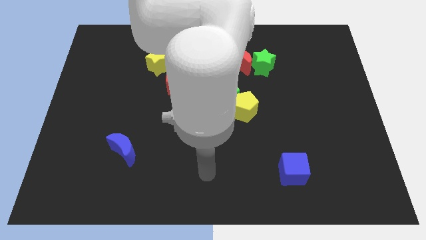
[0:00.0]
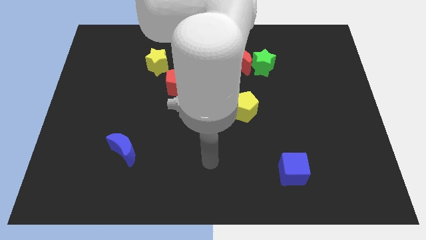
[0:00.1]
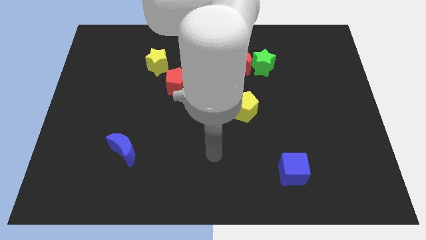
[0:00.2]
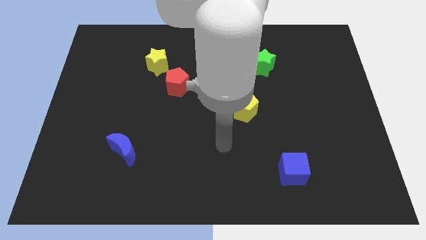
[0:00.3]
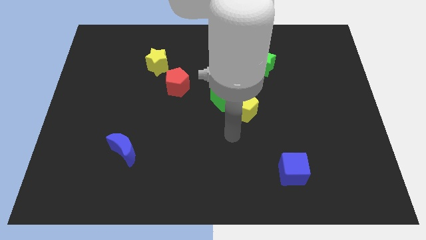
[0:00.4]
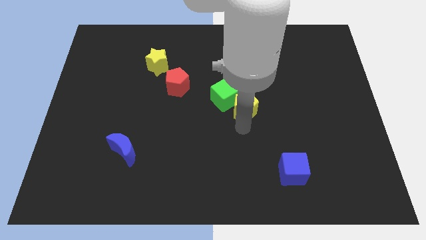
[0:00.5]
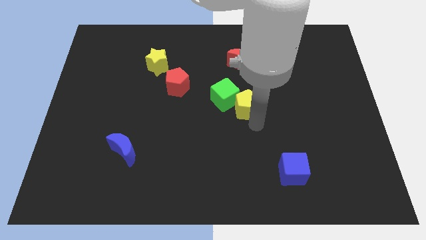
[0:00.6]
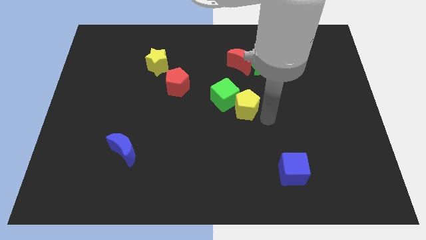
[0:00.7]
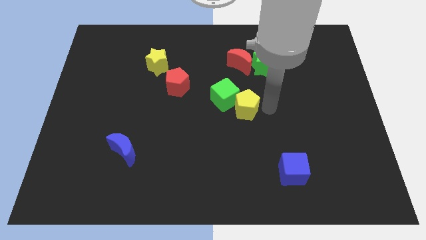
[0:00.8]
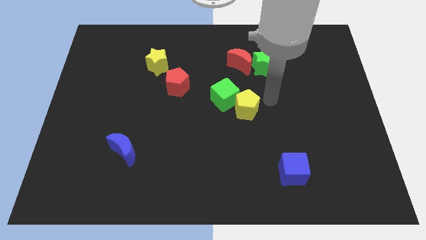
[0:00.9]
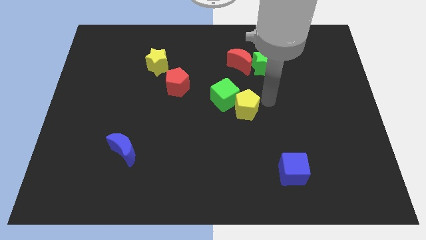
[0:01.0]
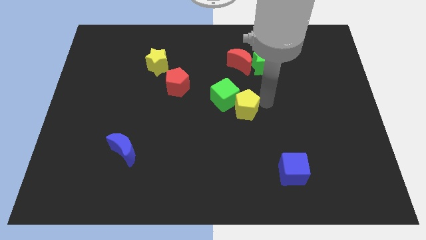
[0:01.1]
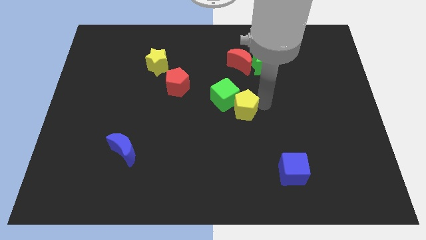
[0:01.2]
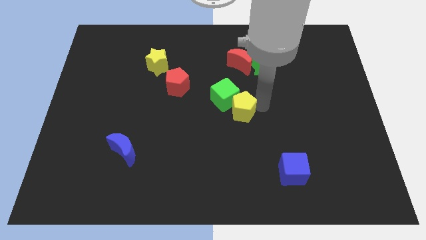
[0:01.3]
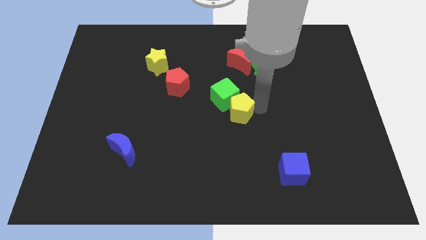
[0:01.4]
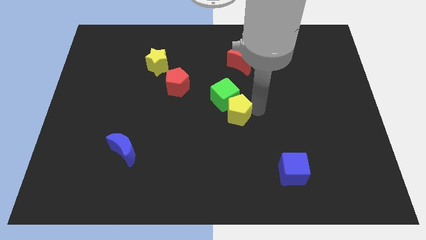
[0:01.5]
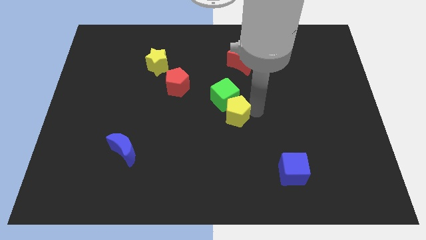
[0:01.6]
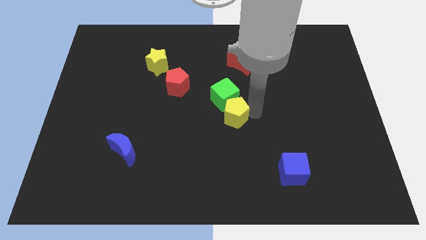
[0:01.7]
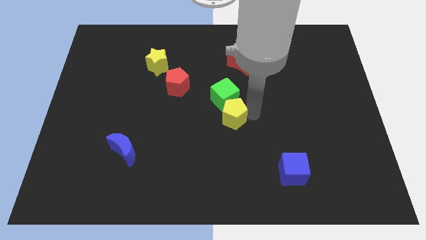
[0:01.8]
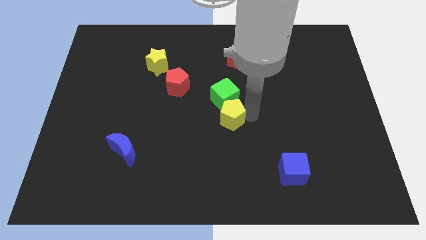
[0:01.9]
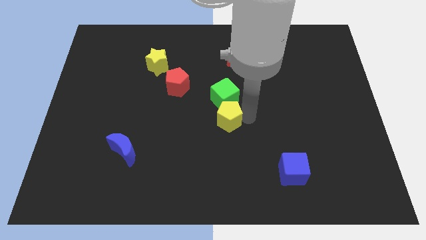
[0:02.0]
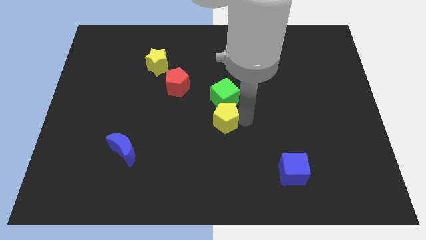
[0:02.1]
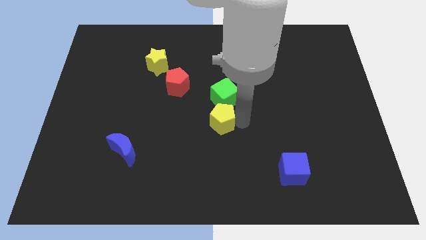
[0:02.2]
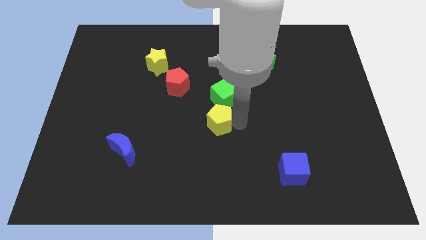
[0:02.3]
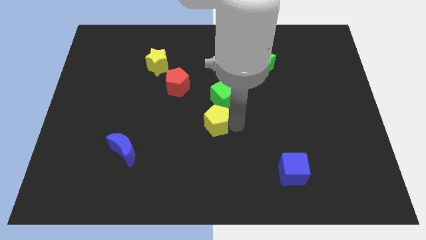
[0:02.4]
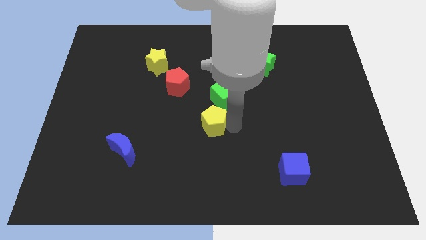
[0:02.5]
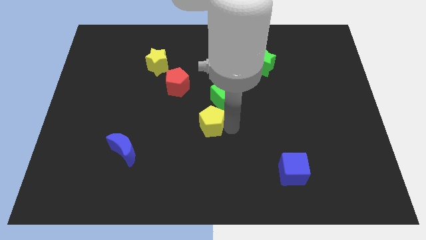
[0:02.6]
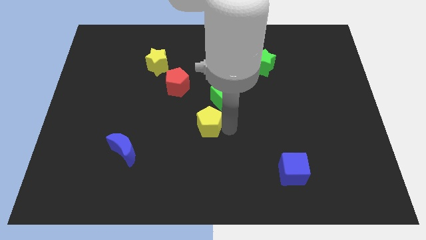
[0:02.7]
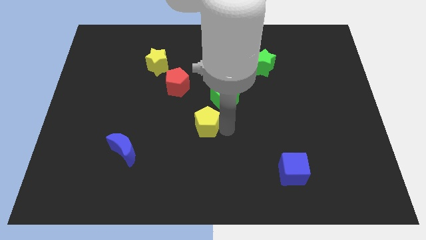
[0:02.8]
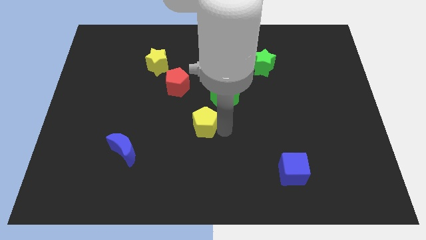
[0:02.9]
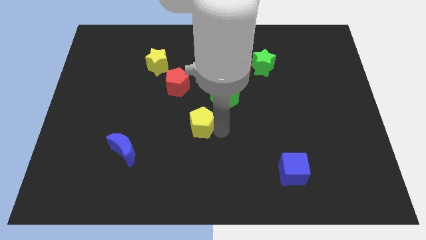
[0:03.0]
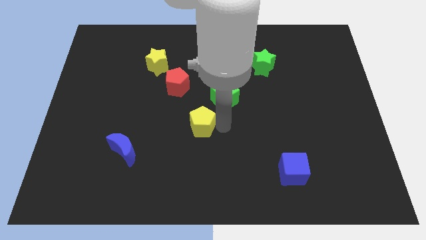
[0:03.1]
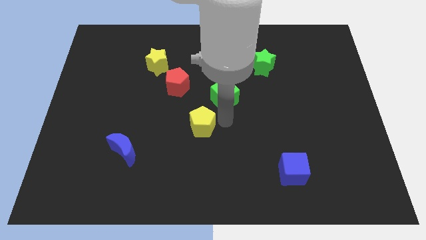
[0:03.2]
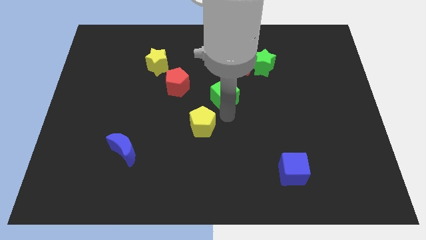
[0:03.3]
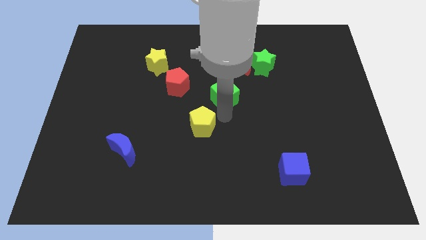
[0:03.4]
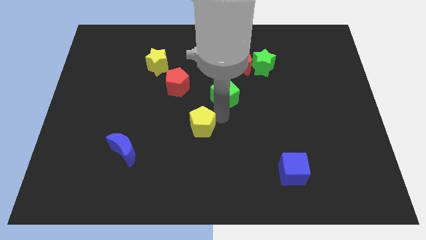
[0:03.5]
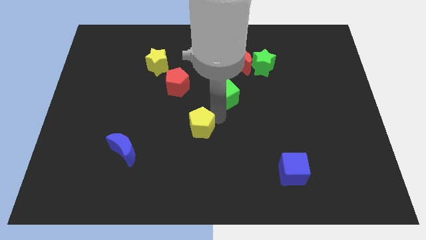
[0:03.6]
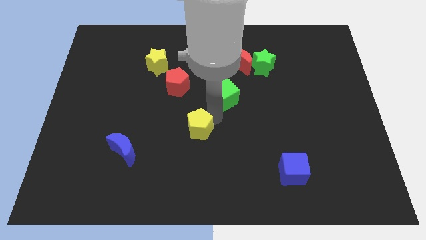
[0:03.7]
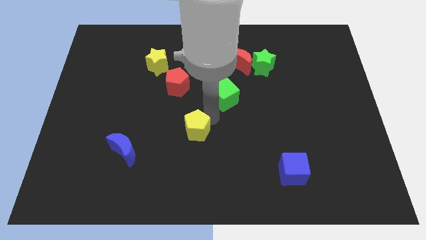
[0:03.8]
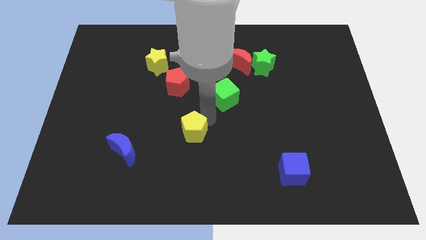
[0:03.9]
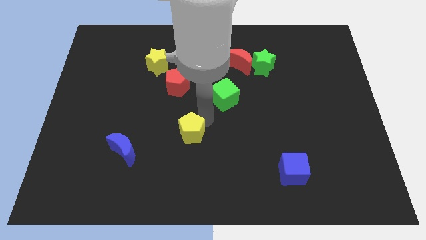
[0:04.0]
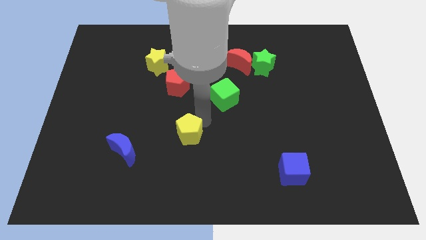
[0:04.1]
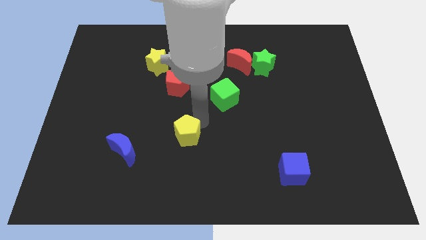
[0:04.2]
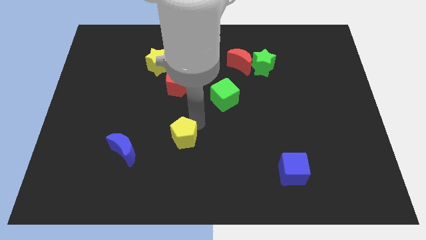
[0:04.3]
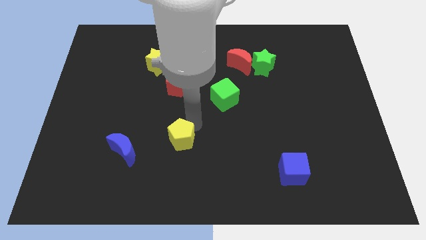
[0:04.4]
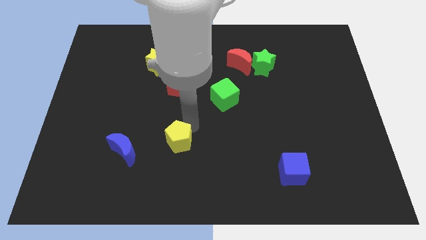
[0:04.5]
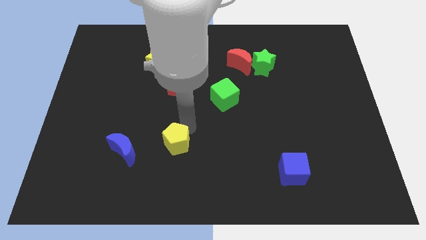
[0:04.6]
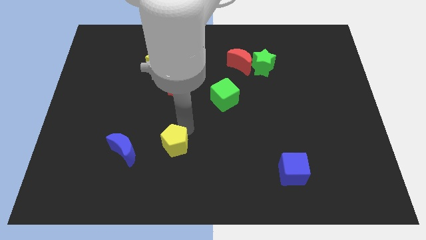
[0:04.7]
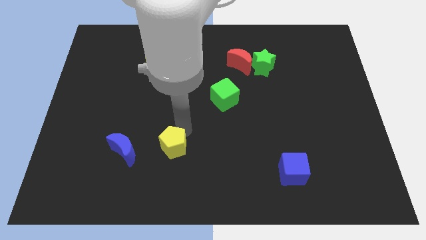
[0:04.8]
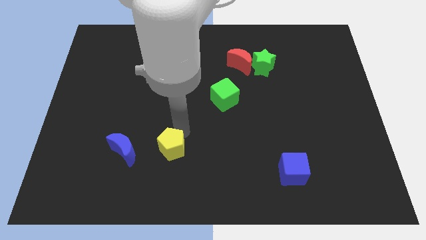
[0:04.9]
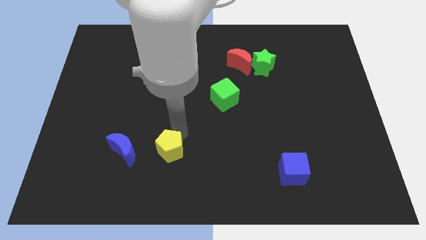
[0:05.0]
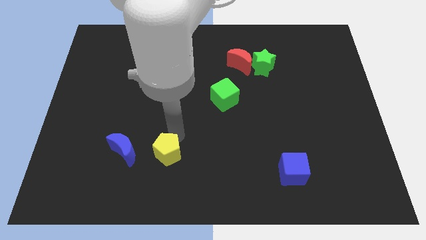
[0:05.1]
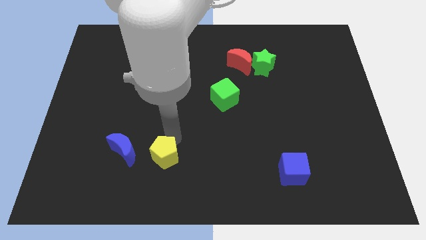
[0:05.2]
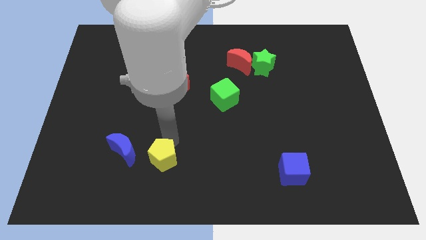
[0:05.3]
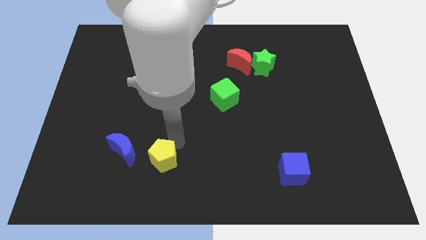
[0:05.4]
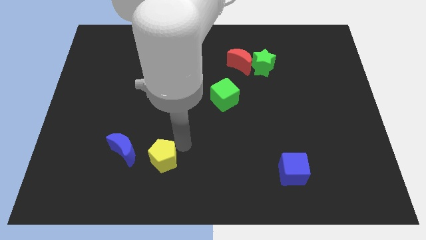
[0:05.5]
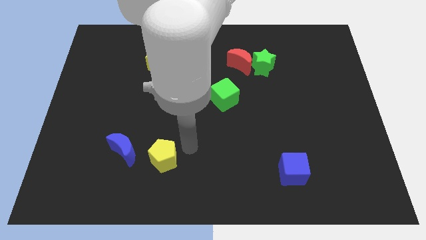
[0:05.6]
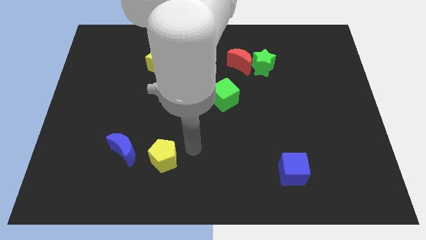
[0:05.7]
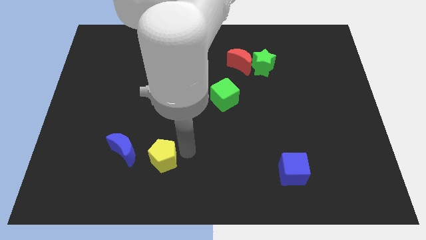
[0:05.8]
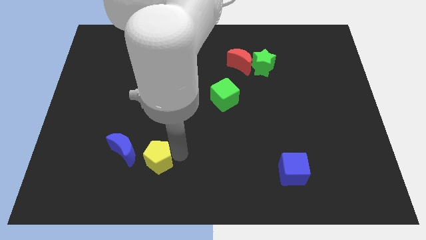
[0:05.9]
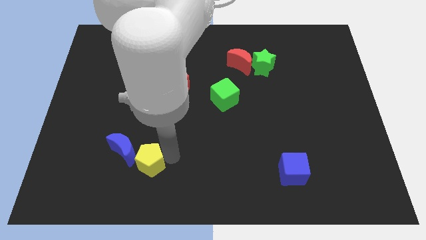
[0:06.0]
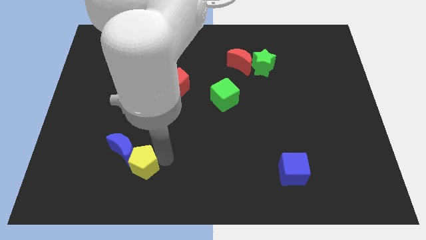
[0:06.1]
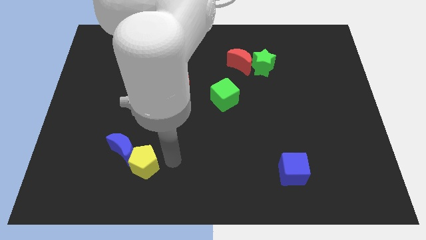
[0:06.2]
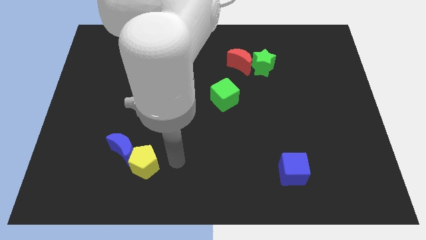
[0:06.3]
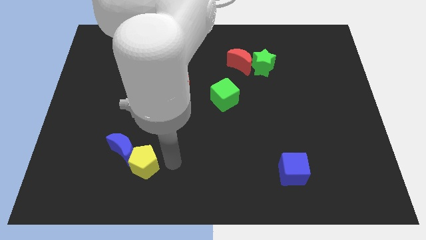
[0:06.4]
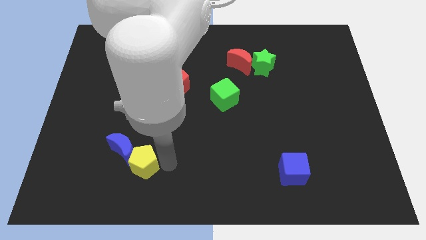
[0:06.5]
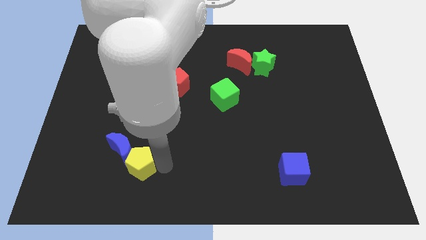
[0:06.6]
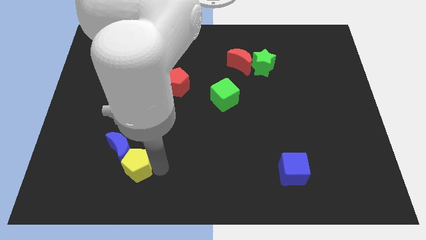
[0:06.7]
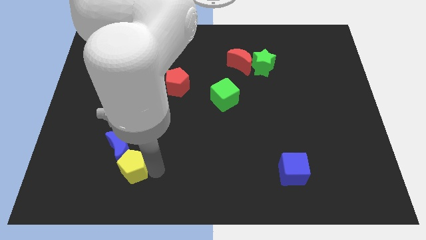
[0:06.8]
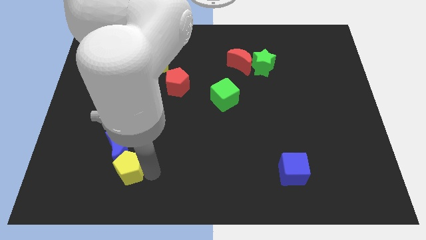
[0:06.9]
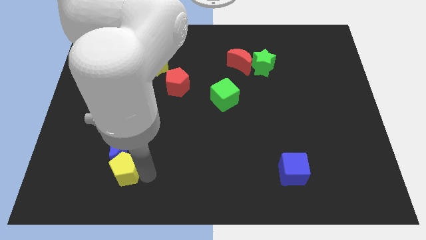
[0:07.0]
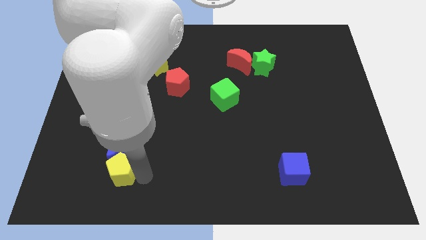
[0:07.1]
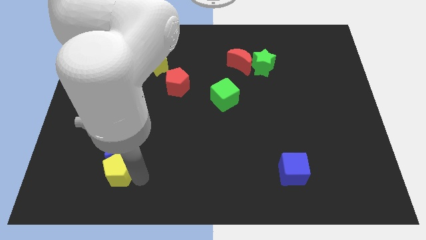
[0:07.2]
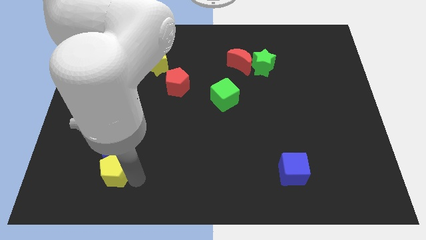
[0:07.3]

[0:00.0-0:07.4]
move the yellow pentagon to the bottom left side of the blue moon
